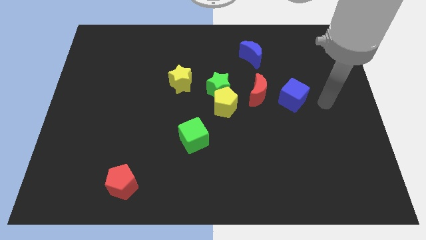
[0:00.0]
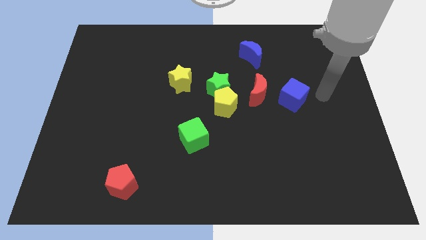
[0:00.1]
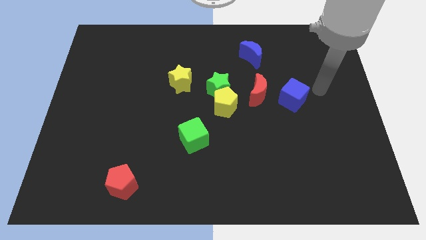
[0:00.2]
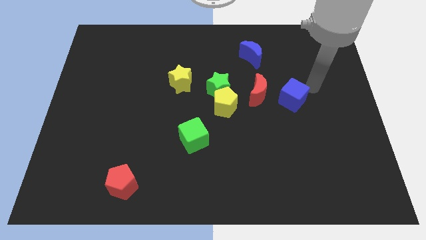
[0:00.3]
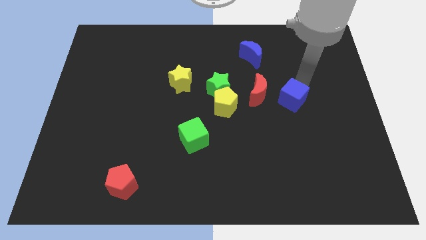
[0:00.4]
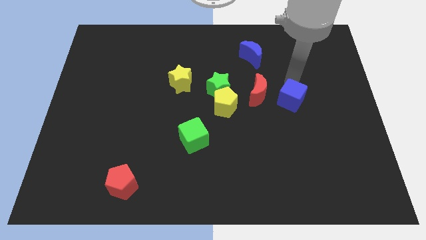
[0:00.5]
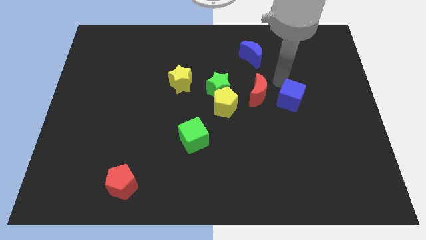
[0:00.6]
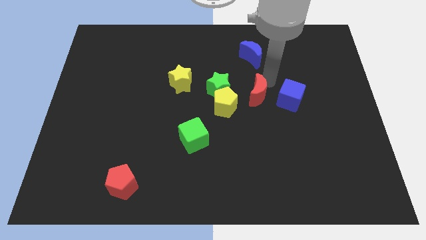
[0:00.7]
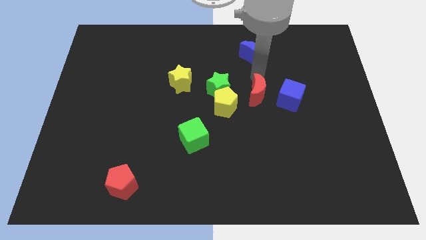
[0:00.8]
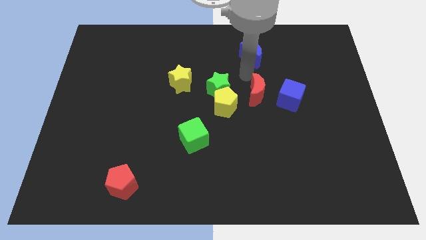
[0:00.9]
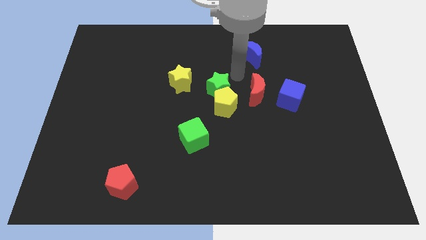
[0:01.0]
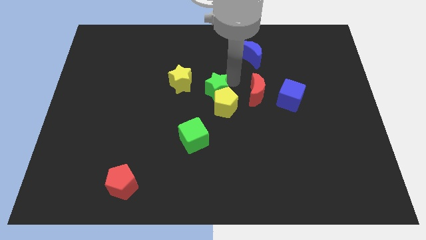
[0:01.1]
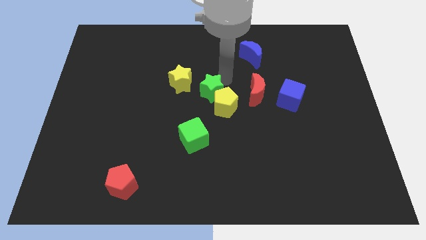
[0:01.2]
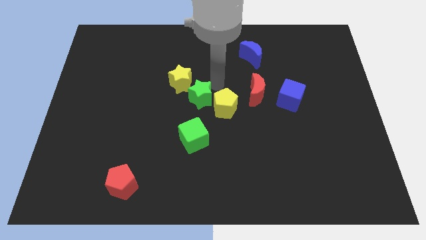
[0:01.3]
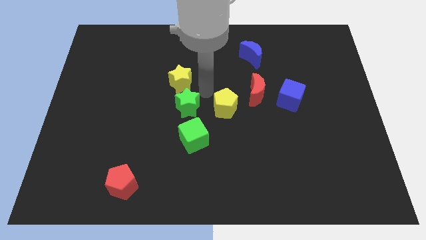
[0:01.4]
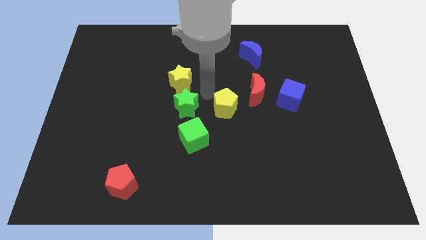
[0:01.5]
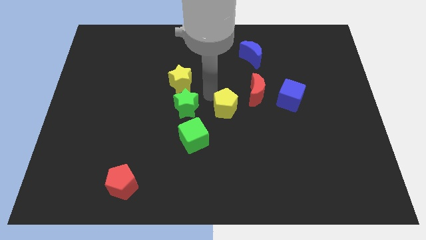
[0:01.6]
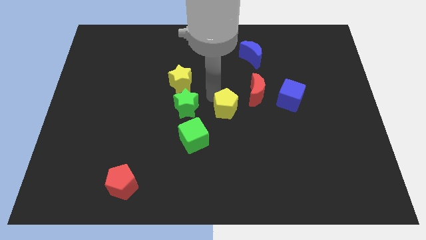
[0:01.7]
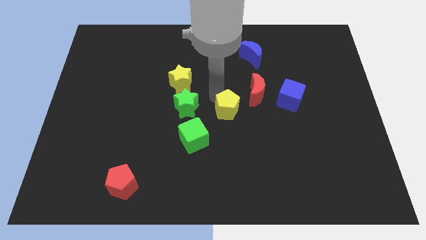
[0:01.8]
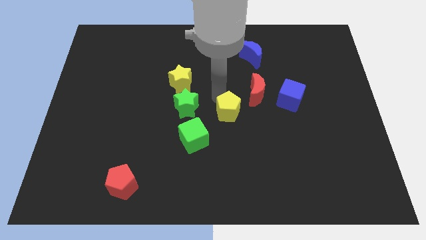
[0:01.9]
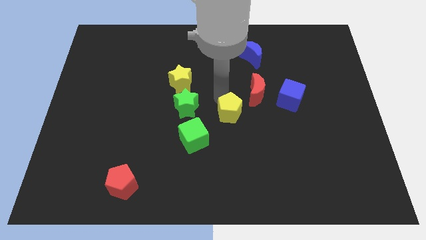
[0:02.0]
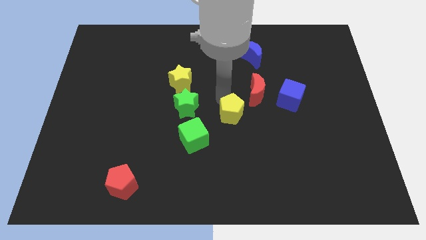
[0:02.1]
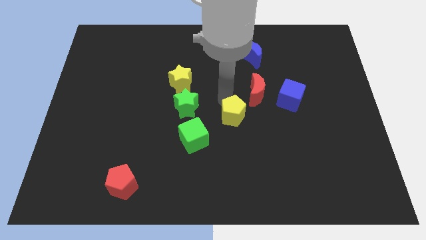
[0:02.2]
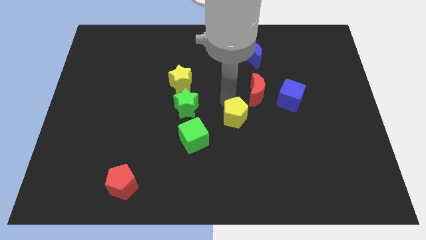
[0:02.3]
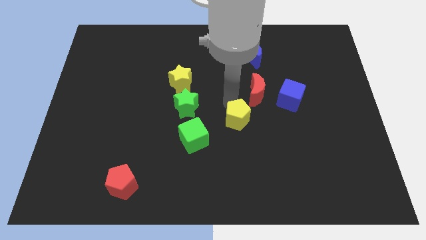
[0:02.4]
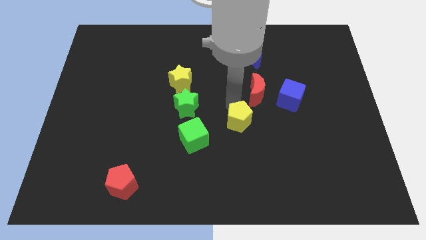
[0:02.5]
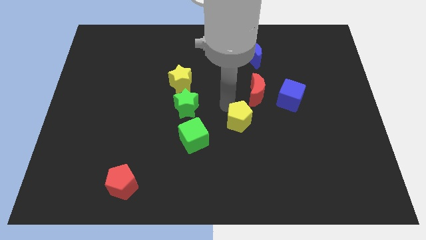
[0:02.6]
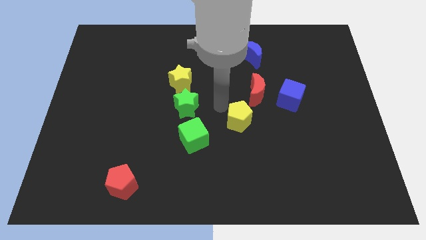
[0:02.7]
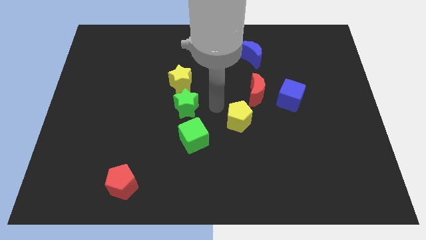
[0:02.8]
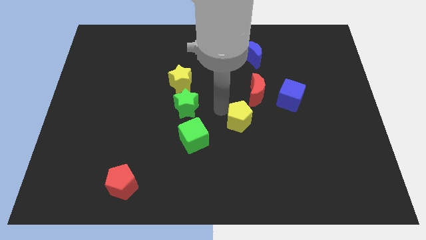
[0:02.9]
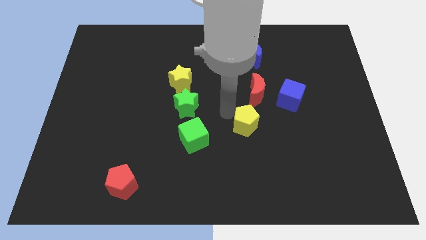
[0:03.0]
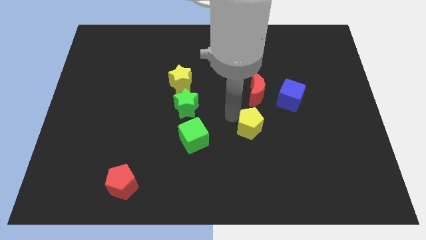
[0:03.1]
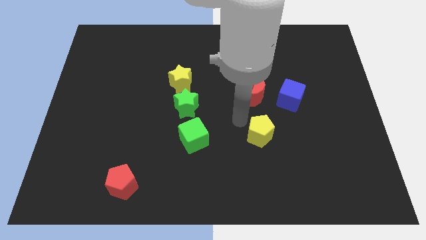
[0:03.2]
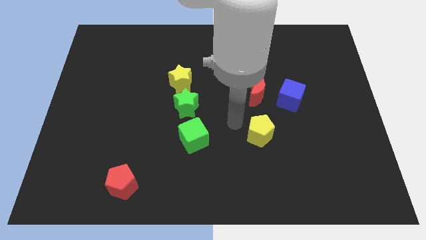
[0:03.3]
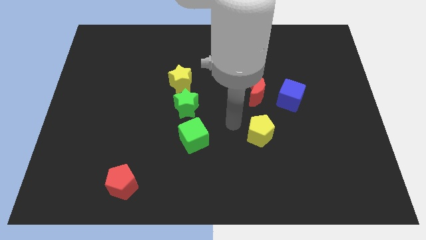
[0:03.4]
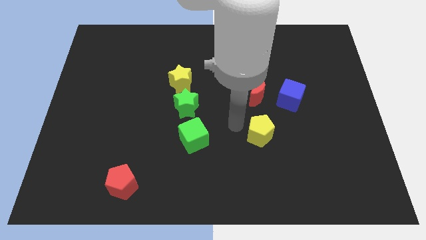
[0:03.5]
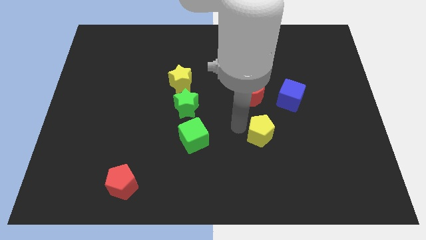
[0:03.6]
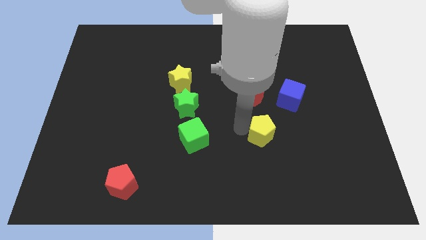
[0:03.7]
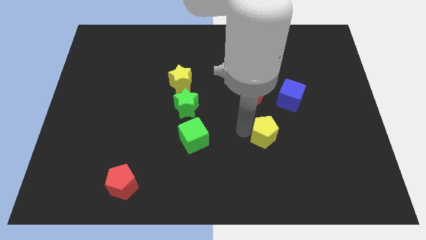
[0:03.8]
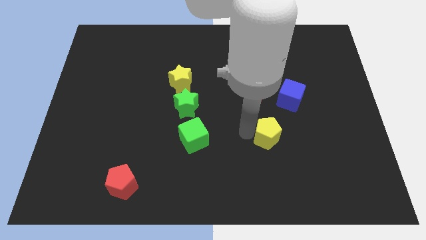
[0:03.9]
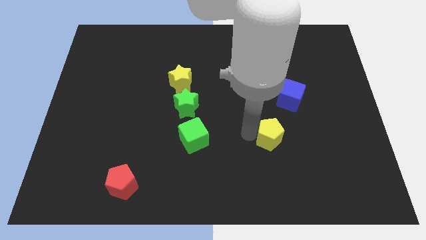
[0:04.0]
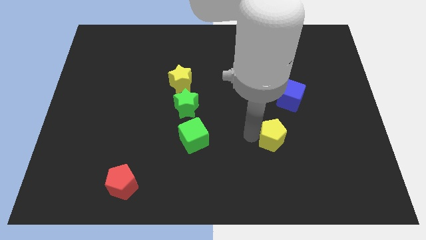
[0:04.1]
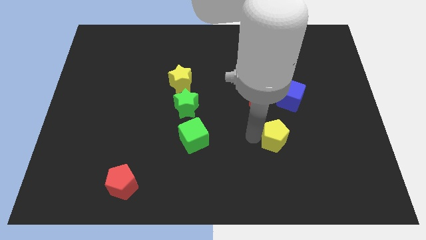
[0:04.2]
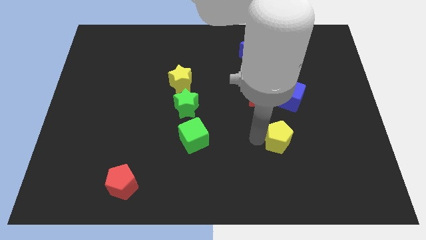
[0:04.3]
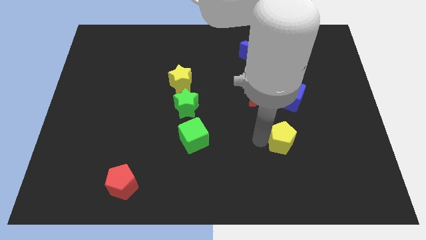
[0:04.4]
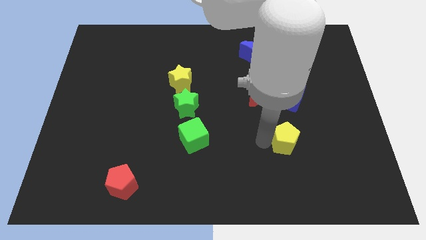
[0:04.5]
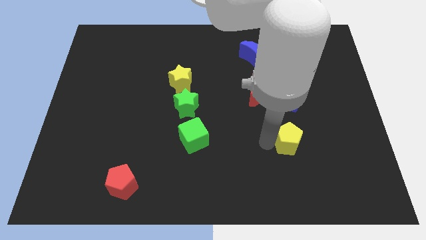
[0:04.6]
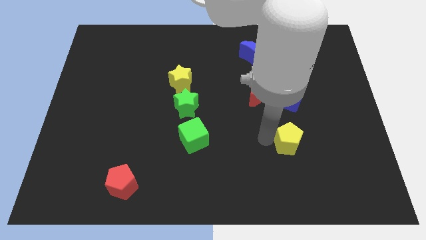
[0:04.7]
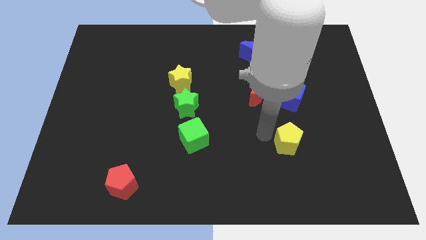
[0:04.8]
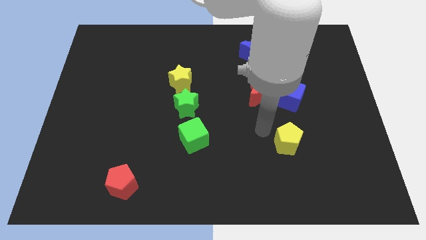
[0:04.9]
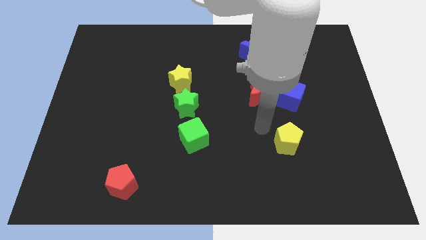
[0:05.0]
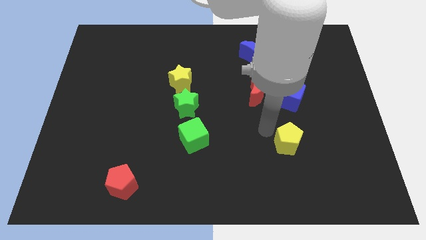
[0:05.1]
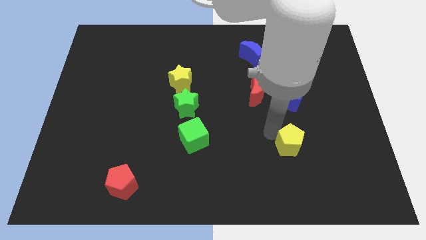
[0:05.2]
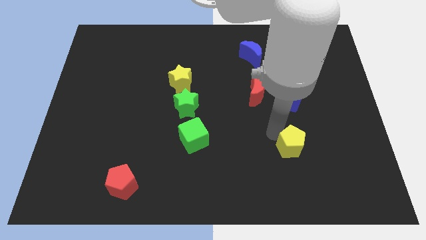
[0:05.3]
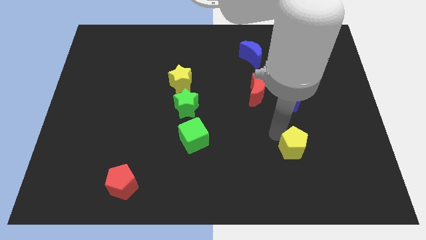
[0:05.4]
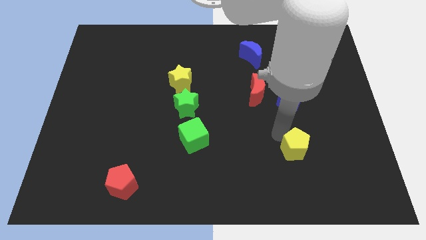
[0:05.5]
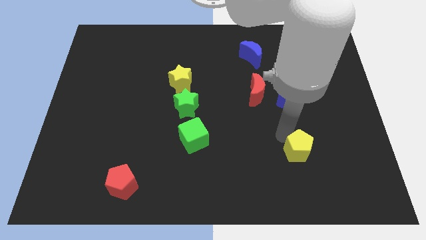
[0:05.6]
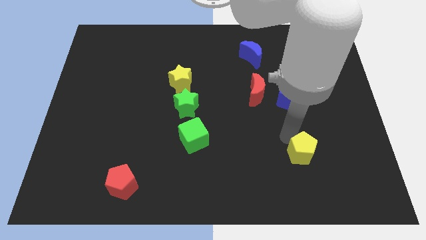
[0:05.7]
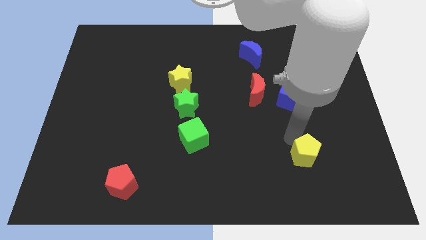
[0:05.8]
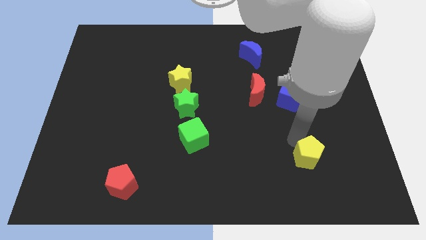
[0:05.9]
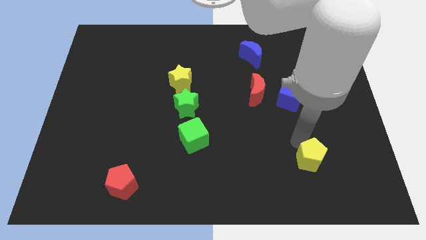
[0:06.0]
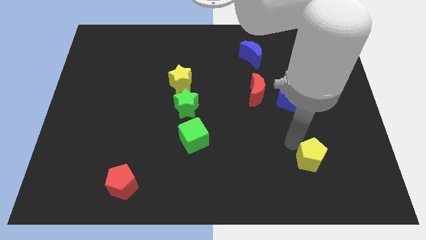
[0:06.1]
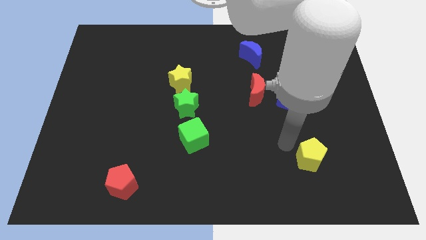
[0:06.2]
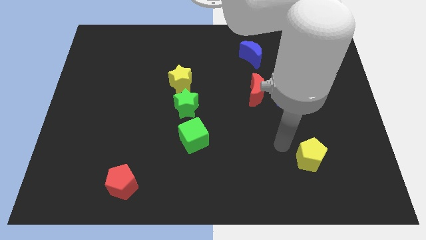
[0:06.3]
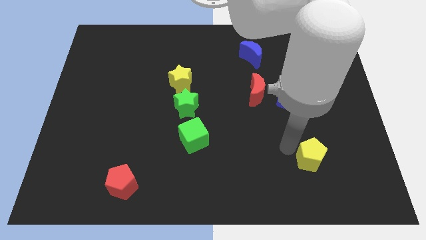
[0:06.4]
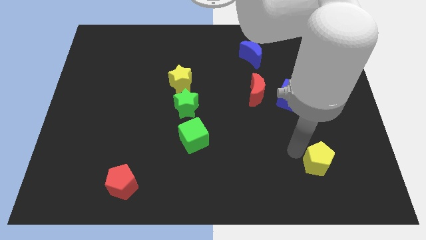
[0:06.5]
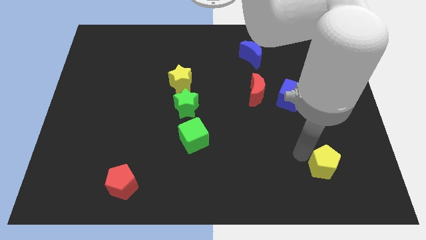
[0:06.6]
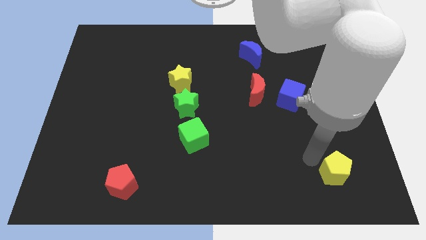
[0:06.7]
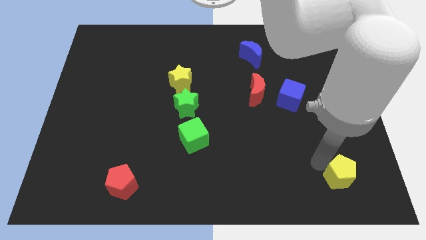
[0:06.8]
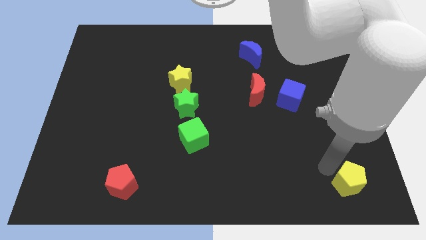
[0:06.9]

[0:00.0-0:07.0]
slide the yellow pentagon to the bottom right

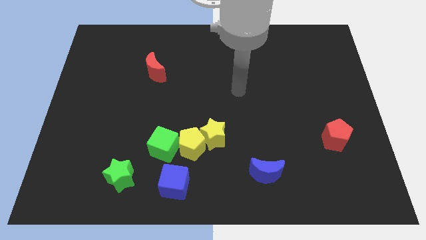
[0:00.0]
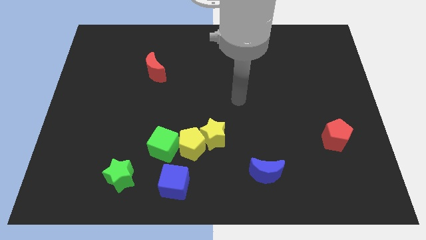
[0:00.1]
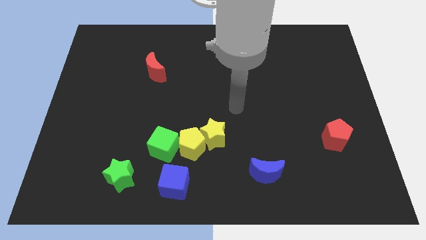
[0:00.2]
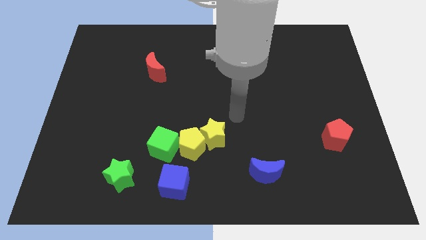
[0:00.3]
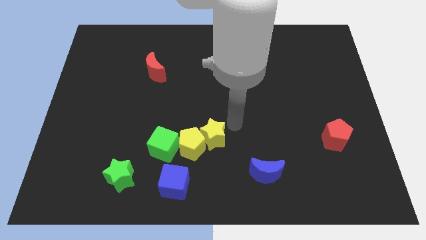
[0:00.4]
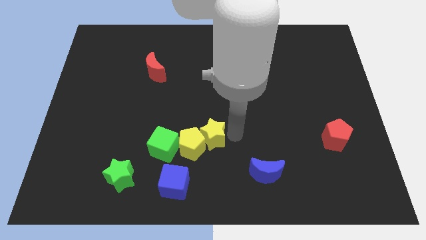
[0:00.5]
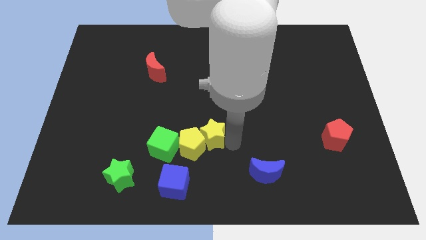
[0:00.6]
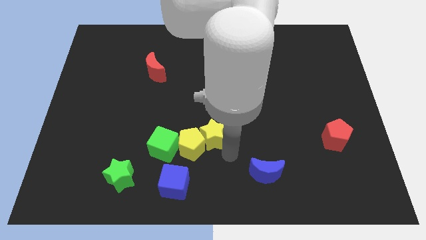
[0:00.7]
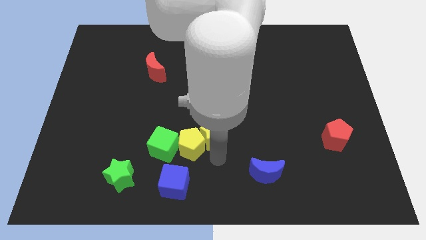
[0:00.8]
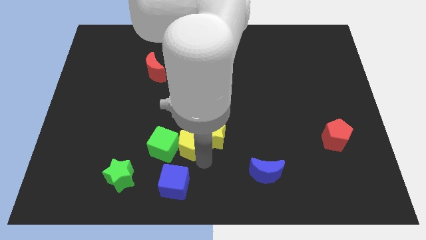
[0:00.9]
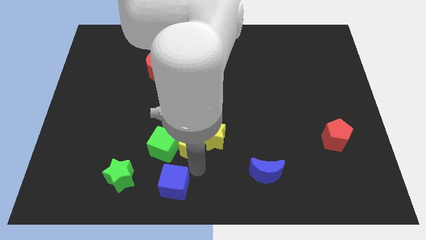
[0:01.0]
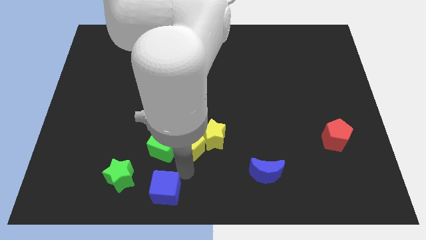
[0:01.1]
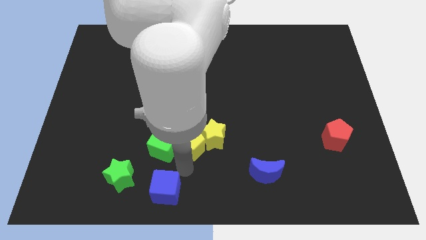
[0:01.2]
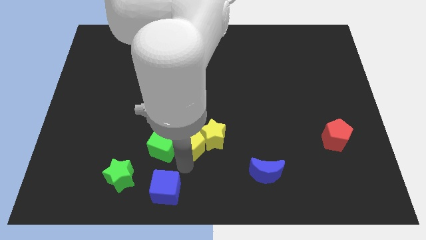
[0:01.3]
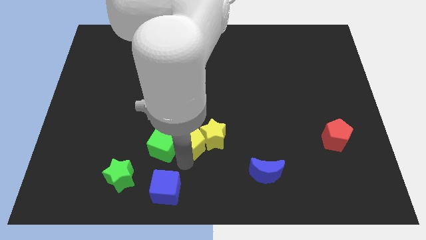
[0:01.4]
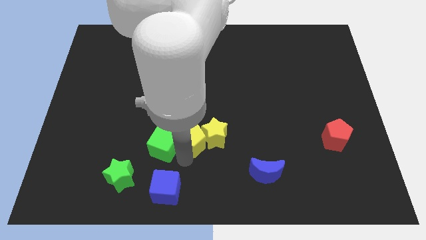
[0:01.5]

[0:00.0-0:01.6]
push the yellow pentagon to the center of the board
